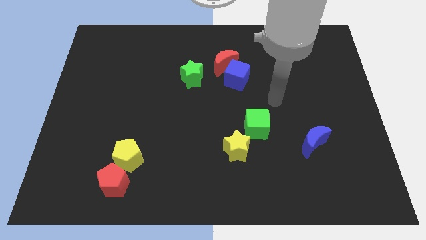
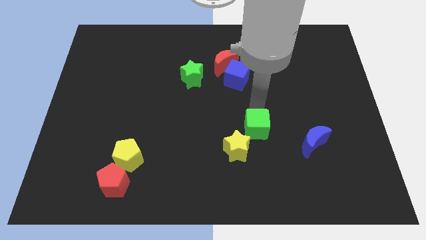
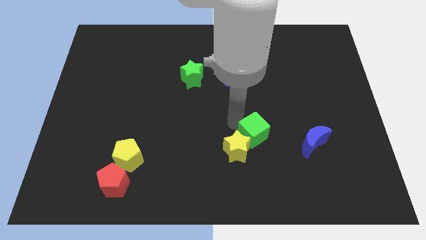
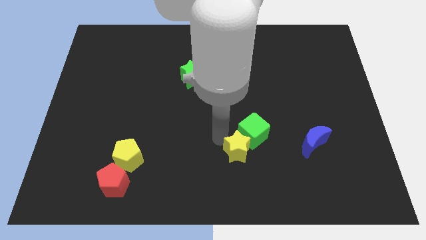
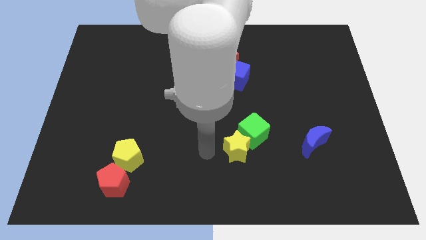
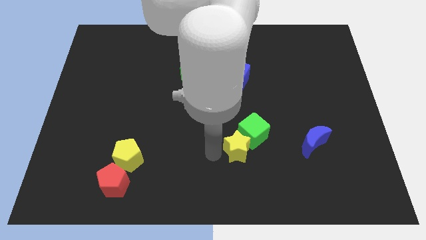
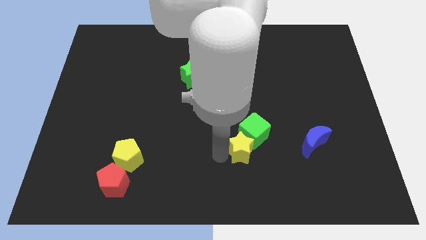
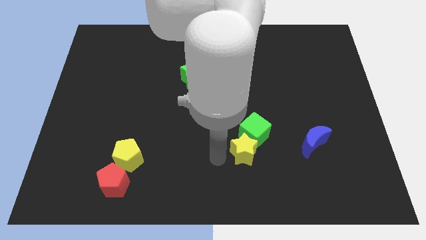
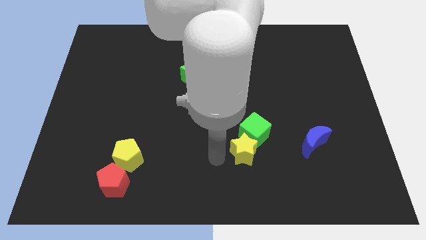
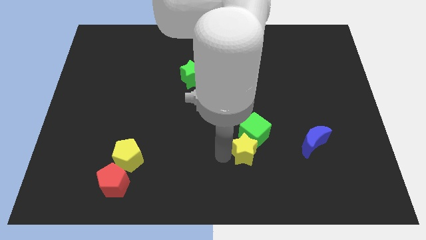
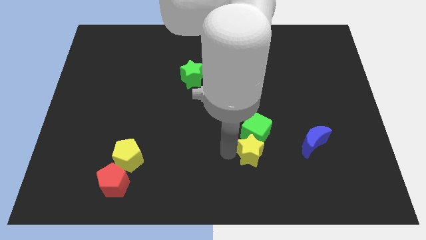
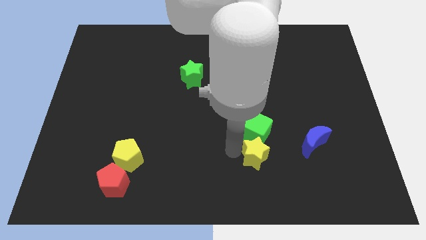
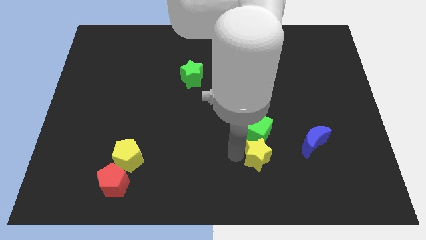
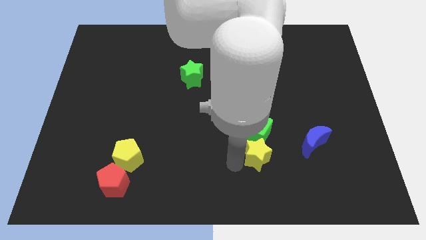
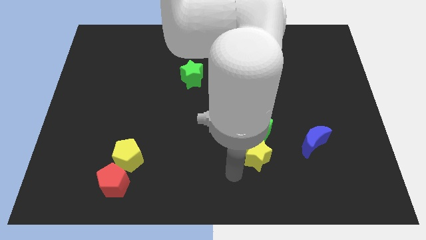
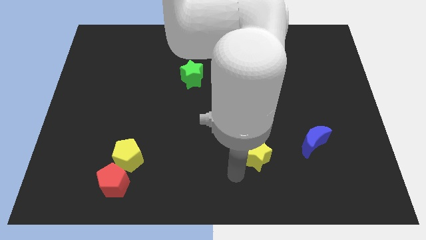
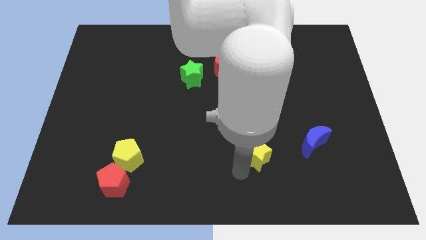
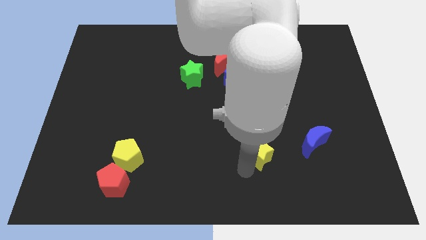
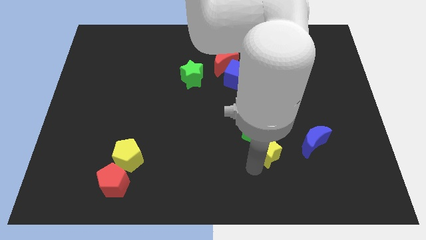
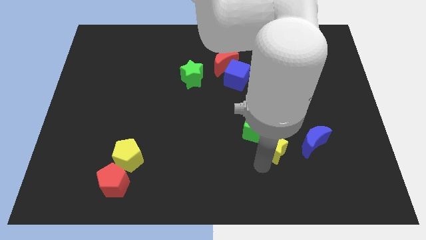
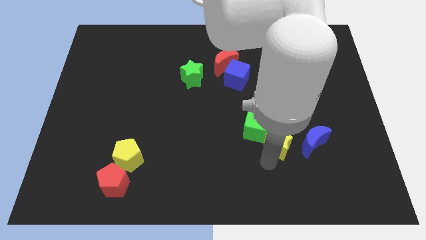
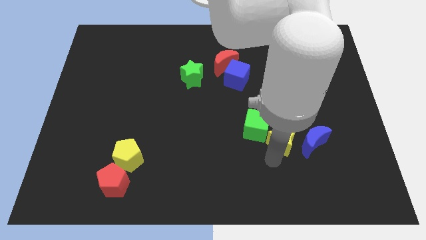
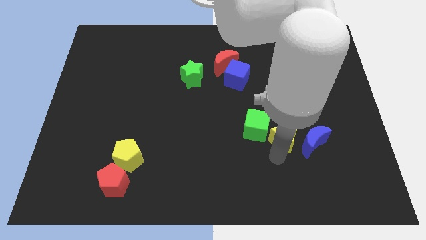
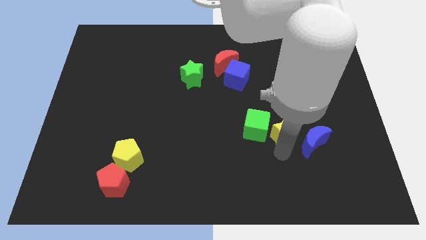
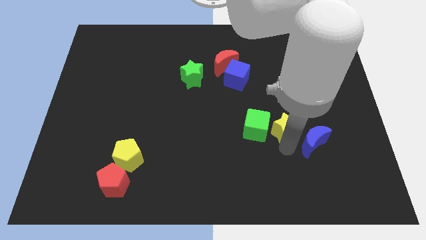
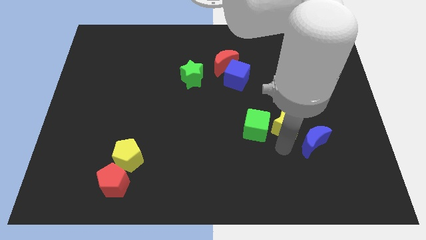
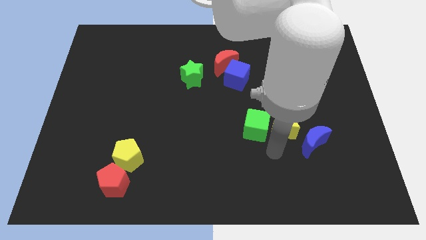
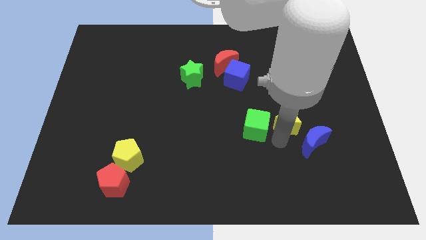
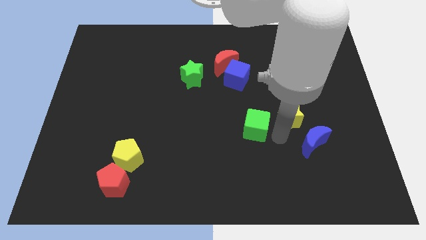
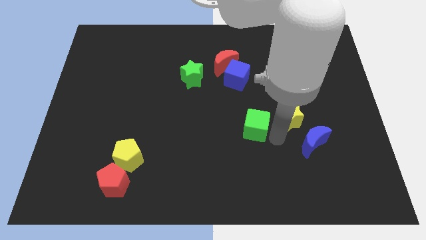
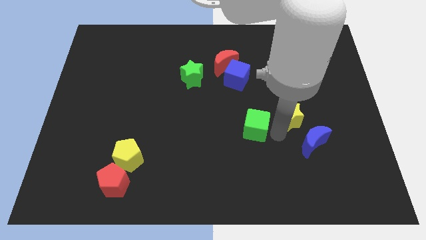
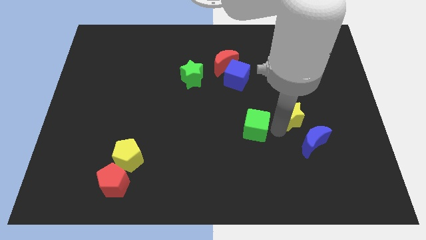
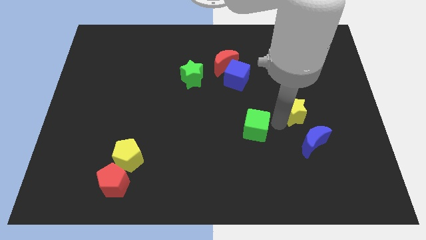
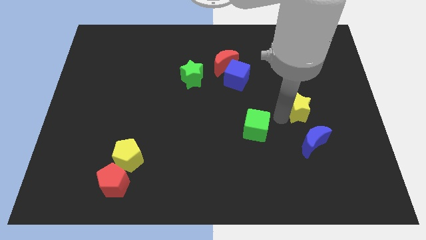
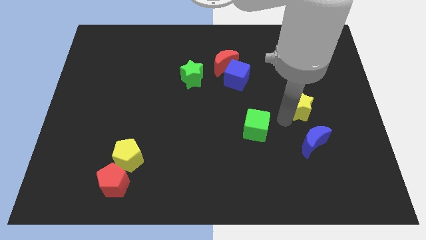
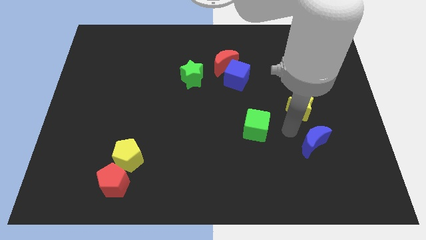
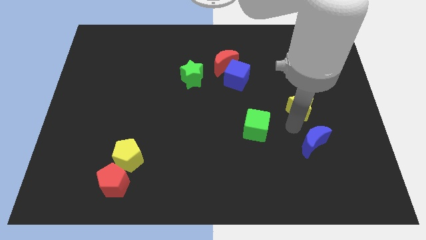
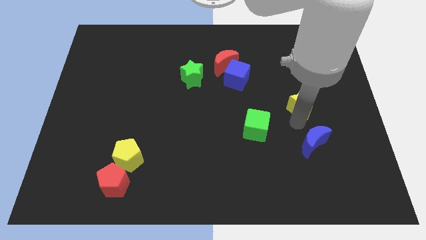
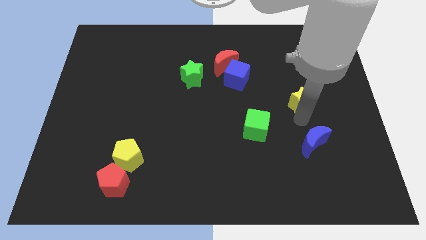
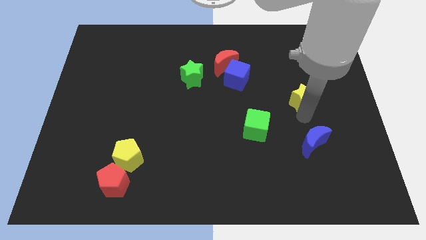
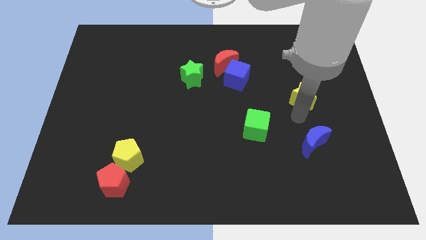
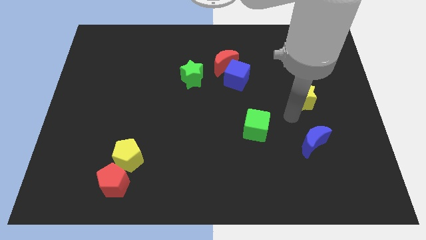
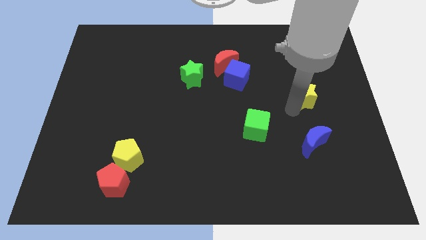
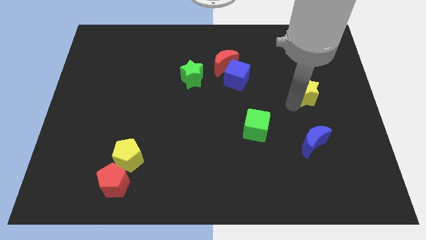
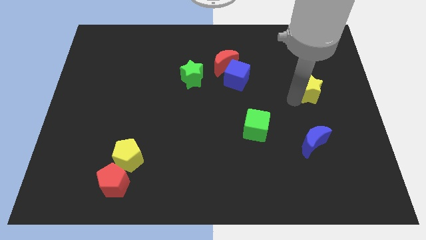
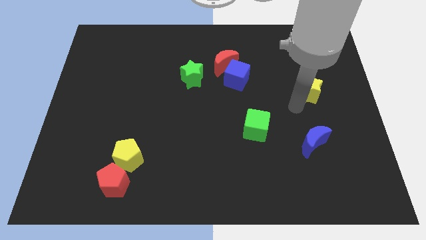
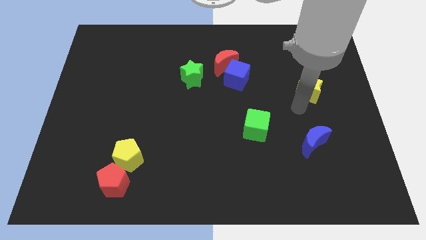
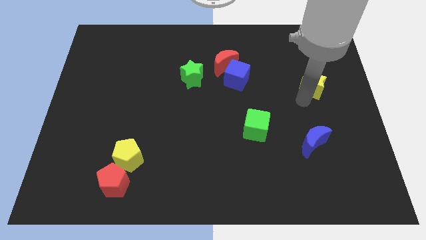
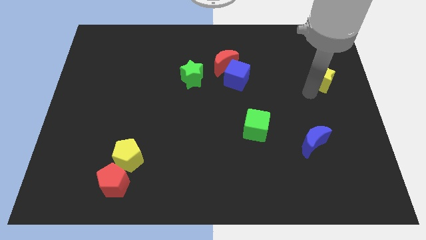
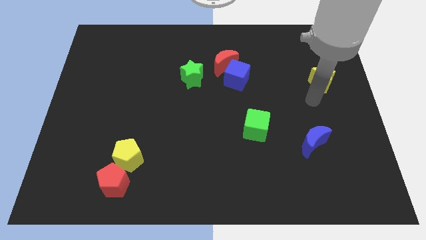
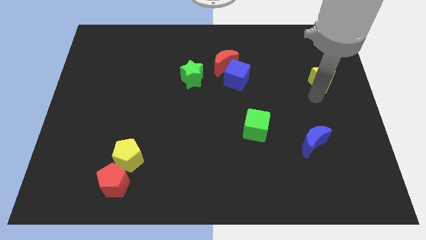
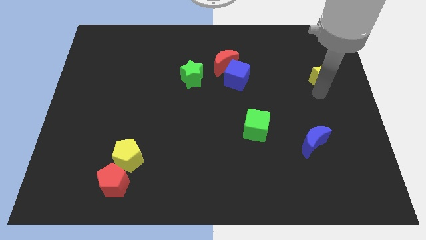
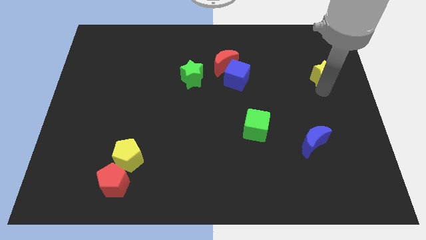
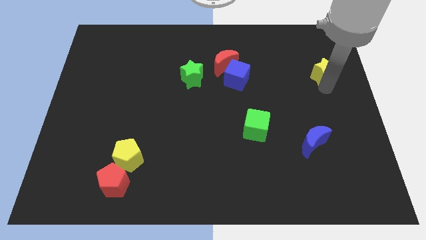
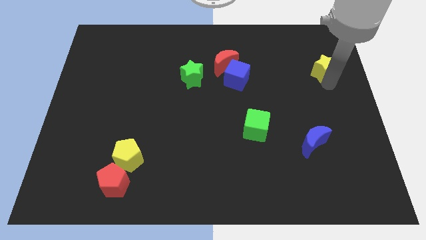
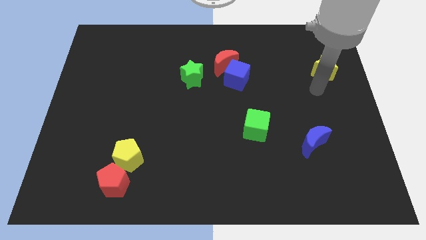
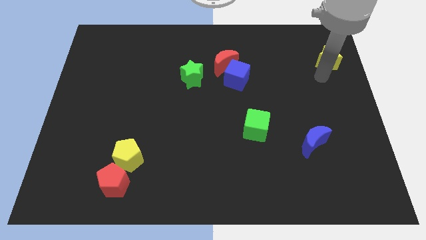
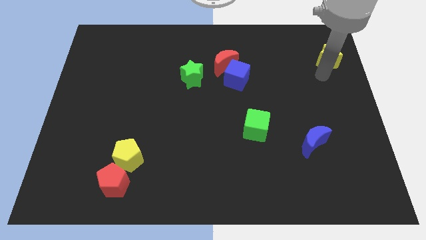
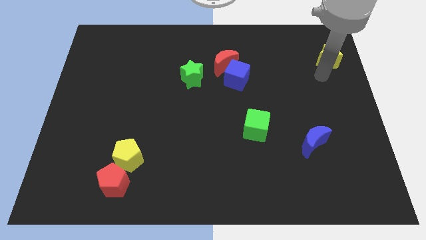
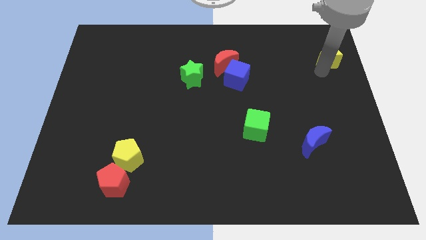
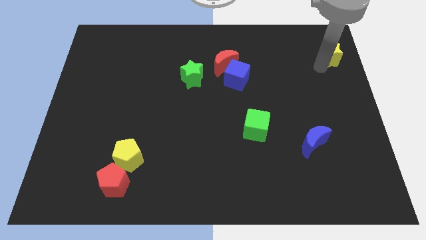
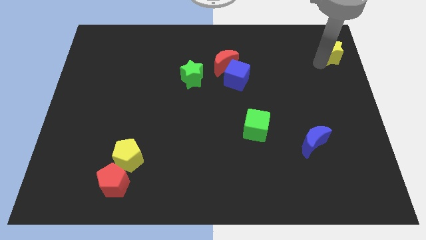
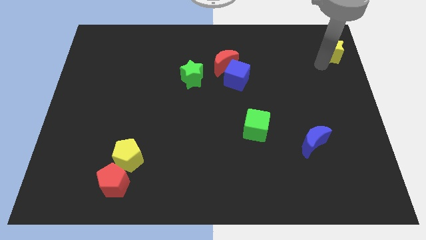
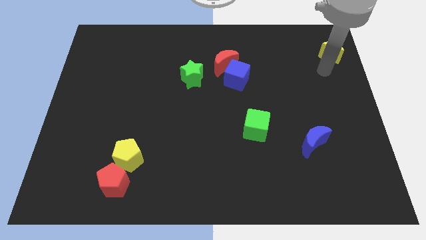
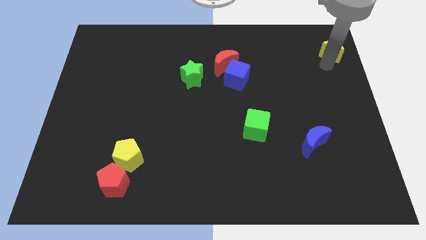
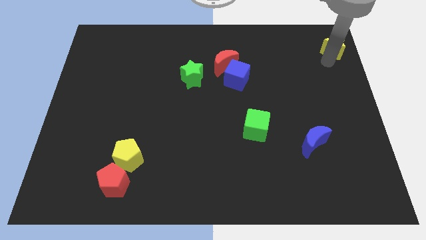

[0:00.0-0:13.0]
move the yellow star to the top right corner
